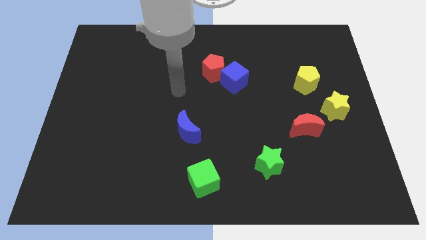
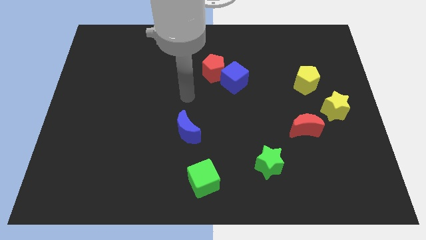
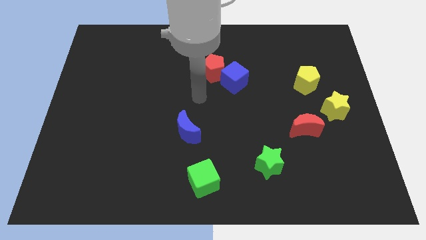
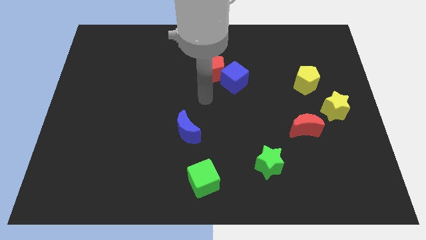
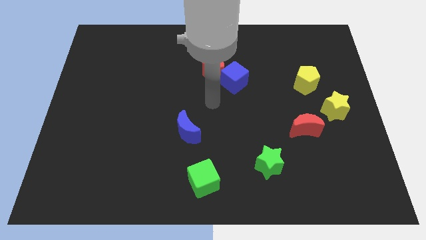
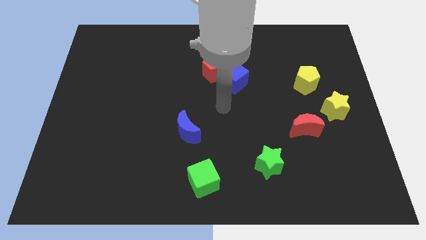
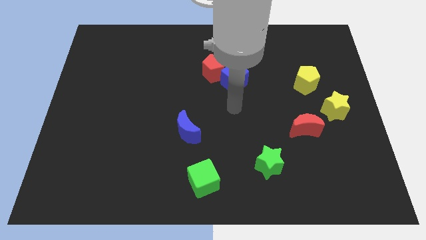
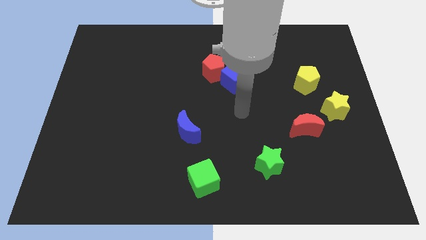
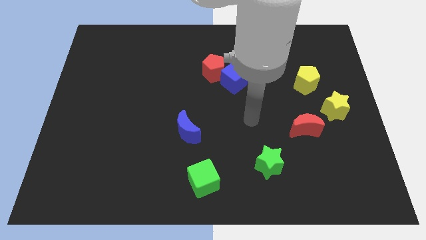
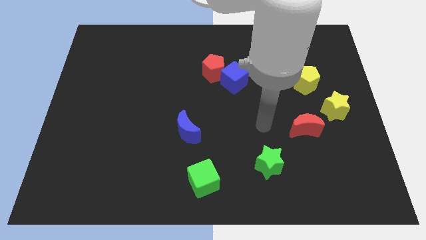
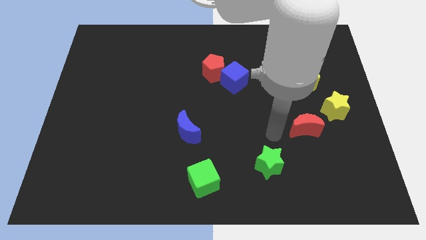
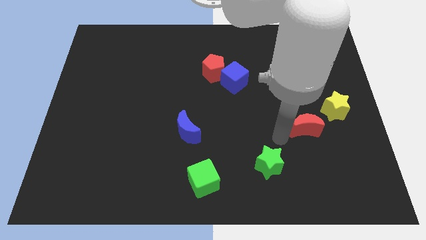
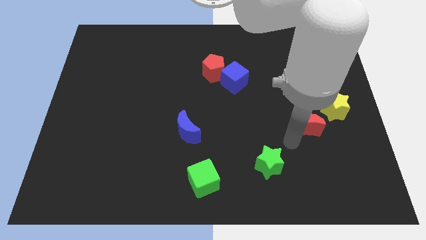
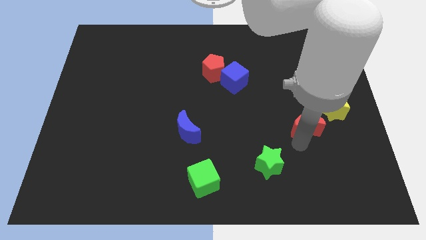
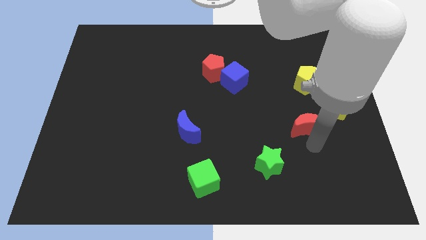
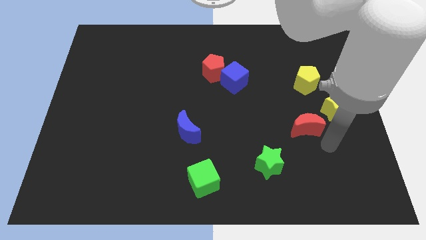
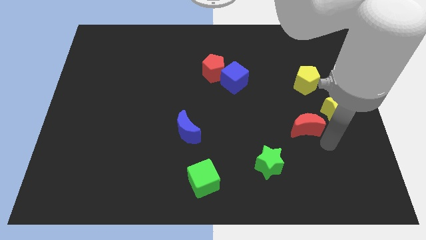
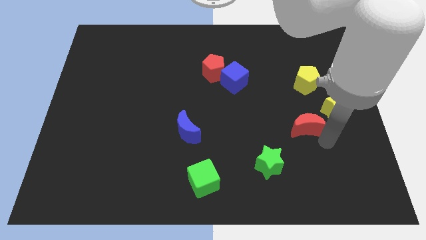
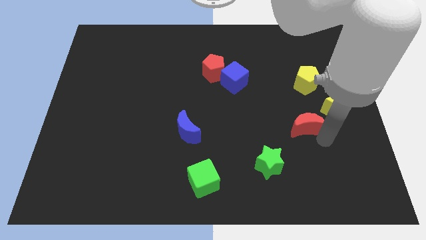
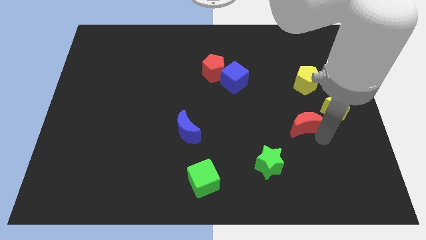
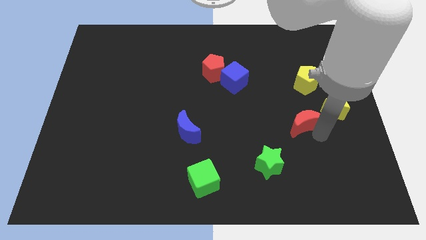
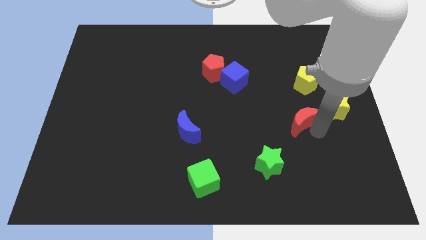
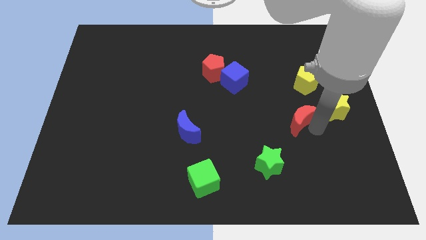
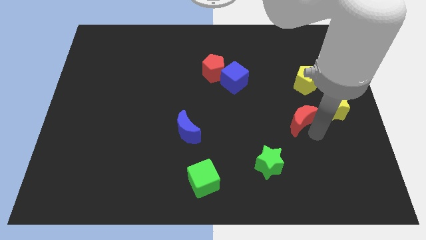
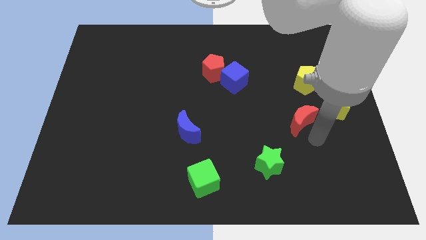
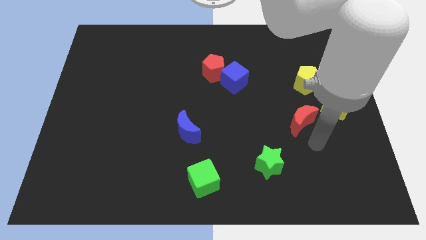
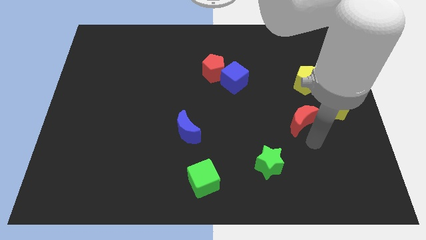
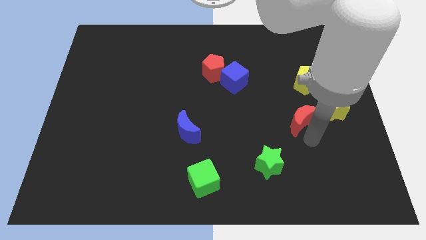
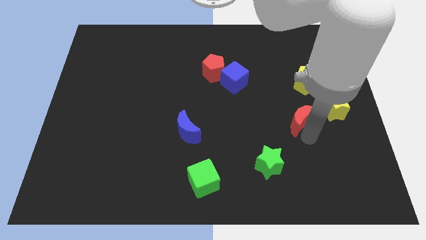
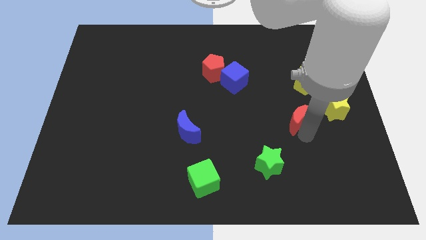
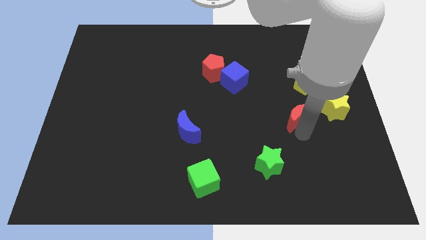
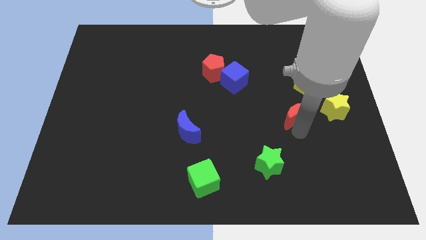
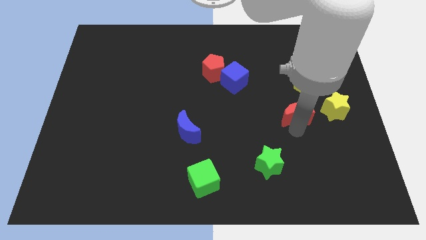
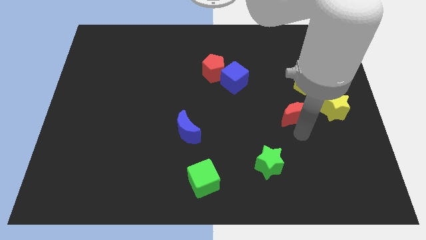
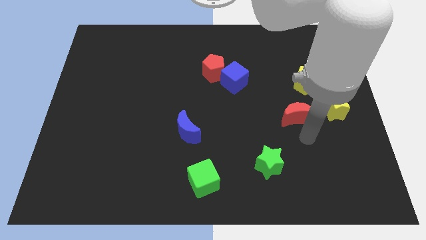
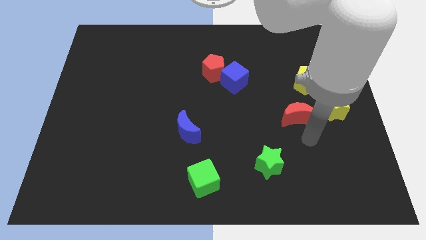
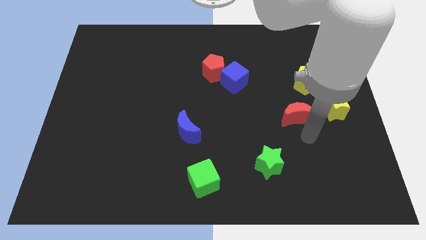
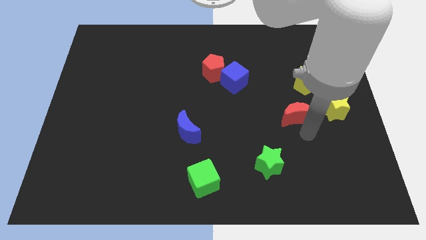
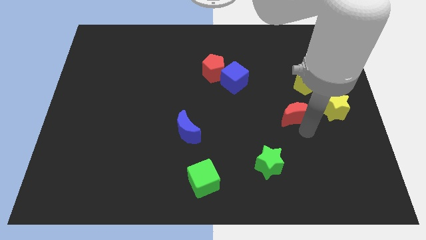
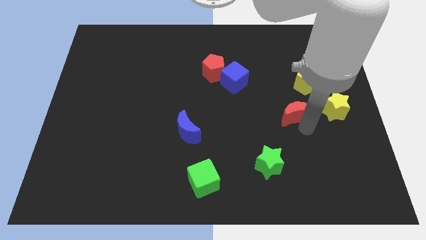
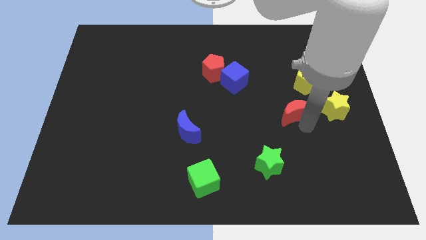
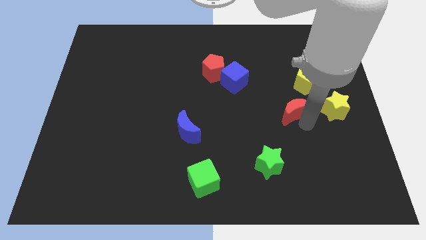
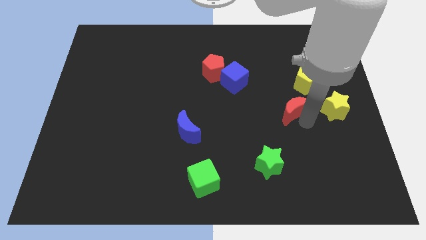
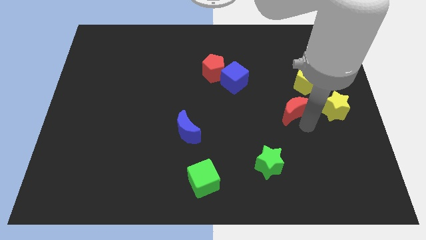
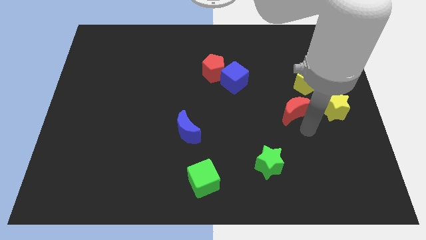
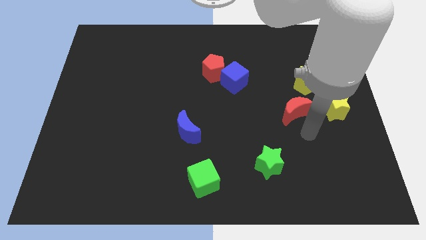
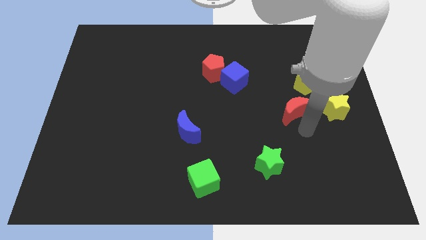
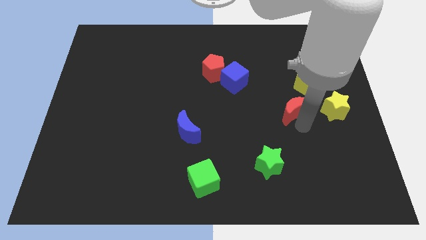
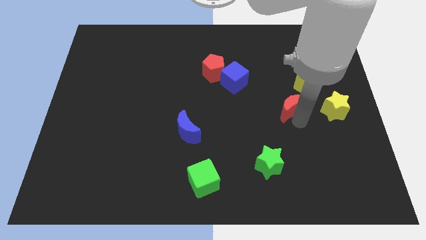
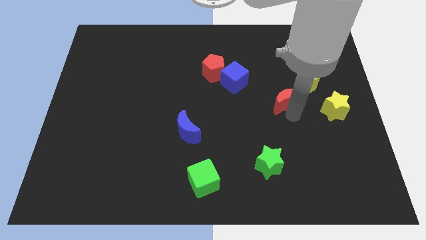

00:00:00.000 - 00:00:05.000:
slide the red moon up somewhat

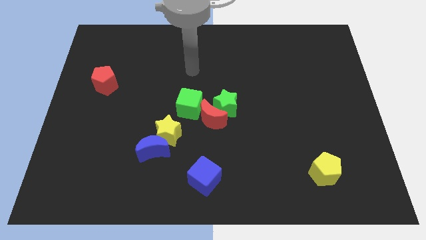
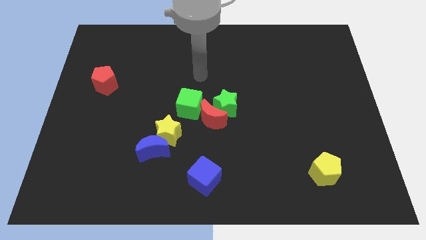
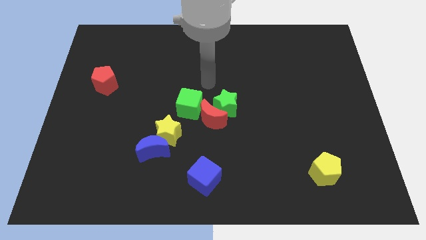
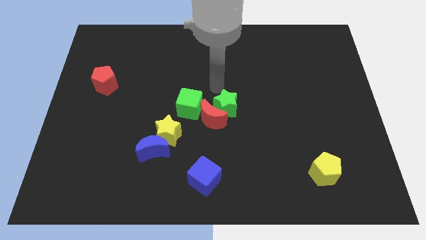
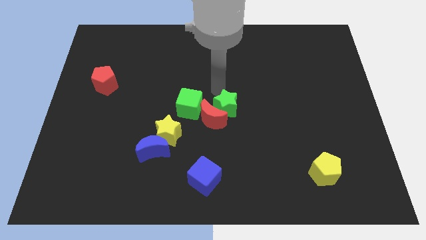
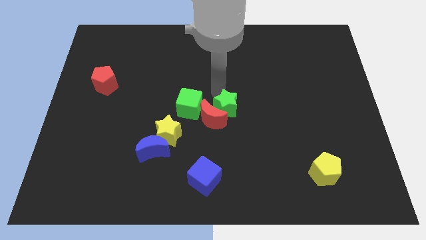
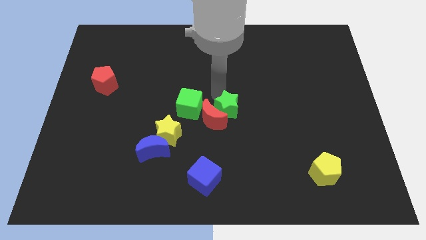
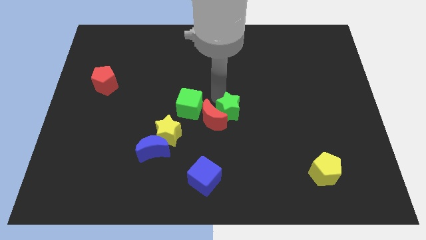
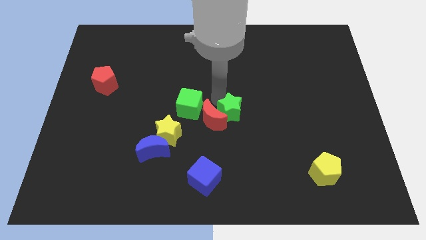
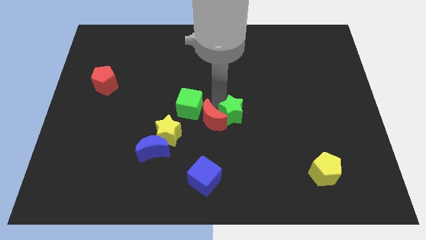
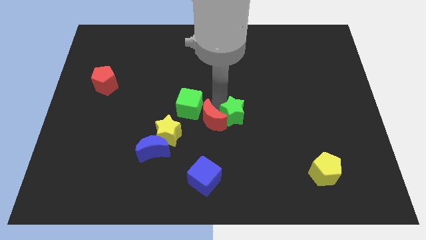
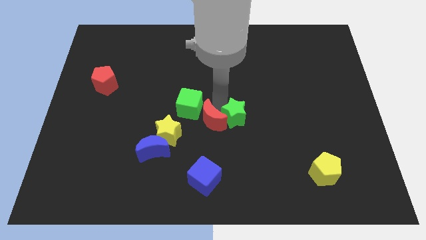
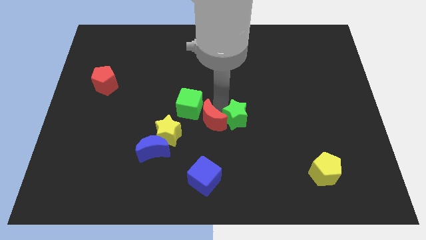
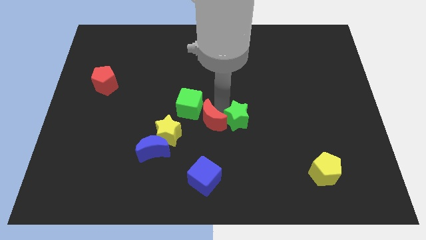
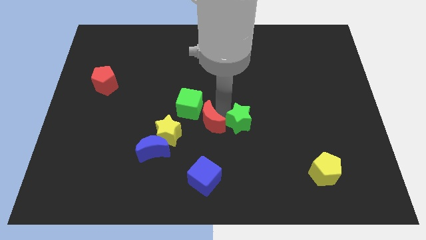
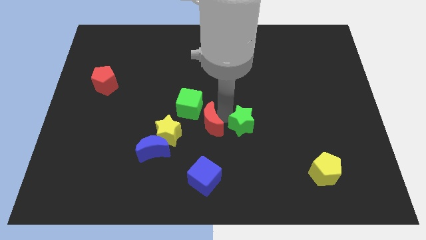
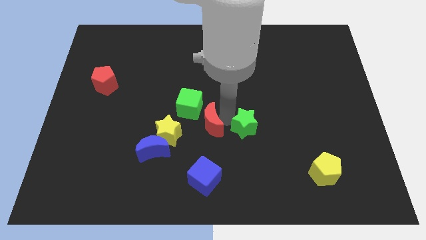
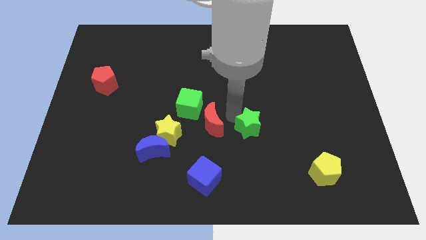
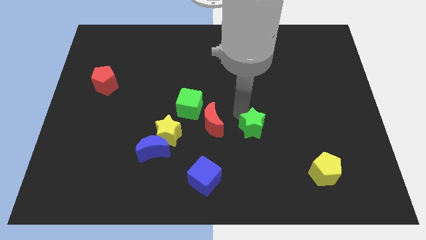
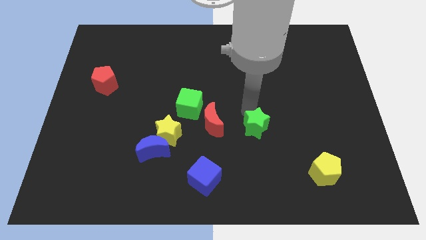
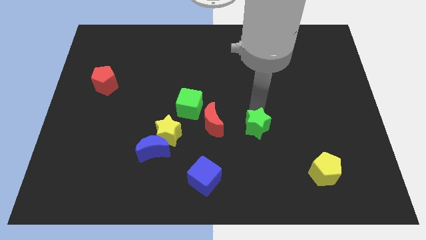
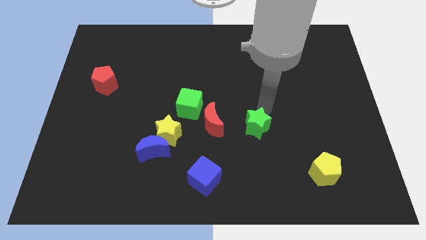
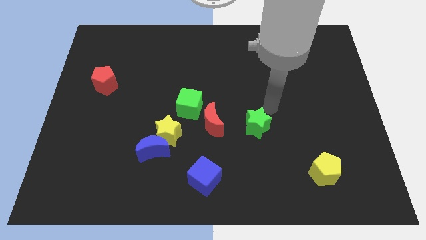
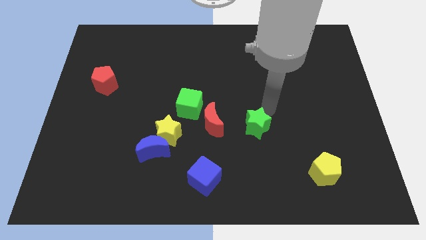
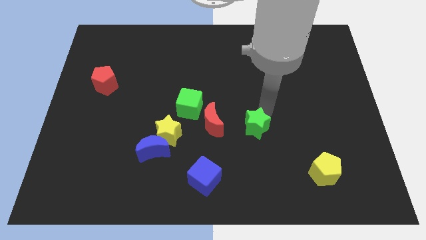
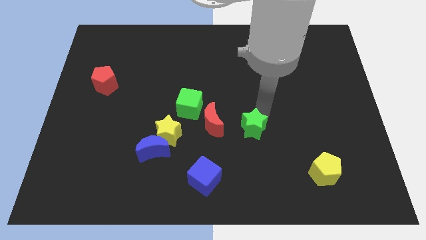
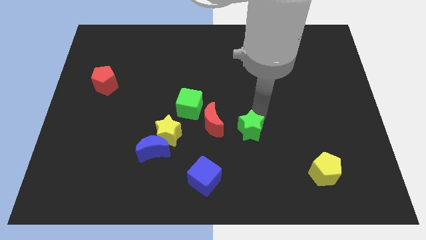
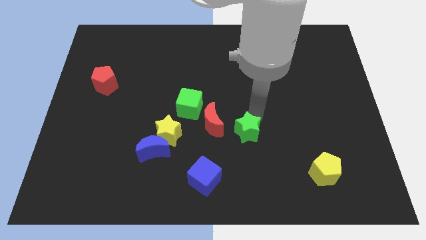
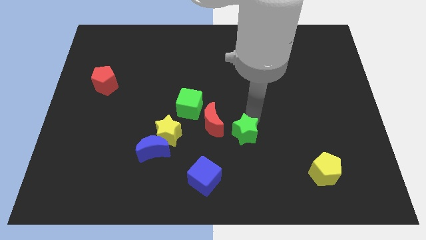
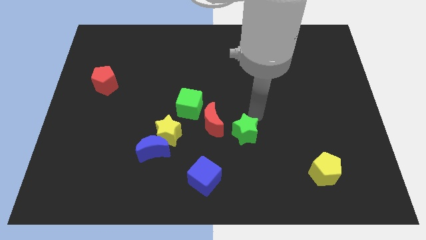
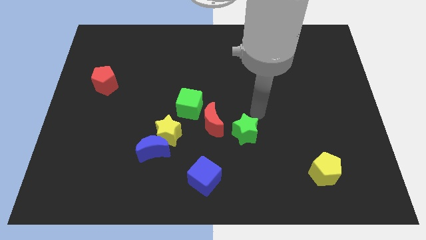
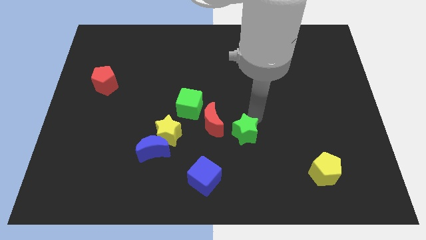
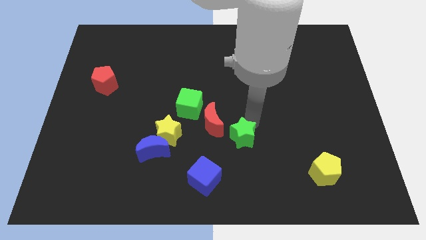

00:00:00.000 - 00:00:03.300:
slightly push the green star downwards
